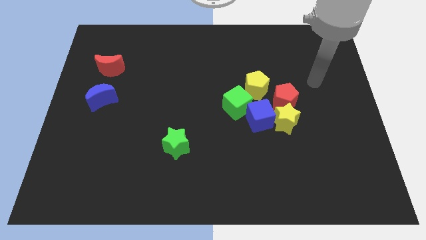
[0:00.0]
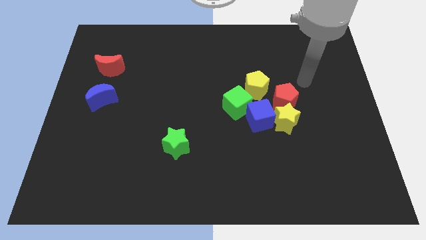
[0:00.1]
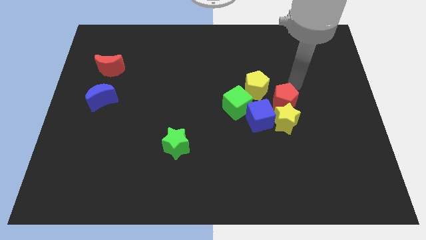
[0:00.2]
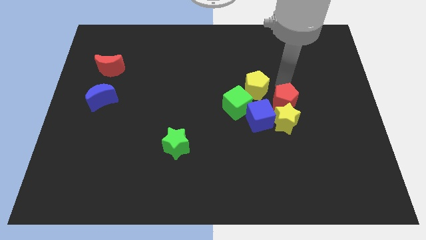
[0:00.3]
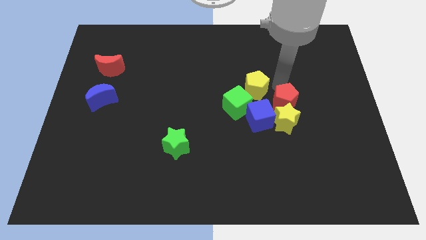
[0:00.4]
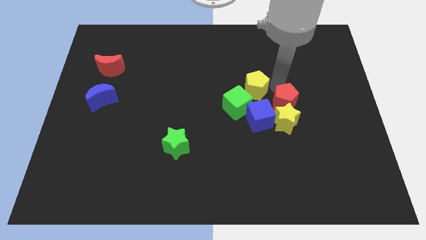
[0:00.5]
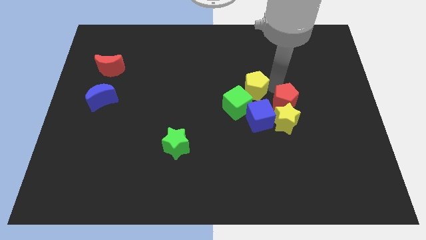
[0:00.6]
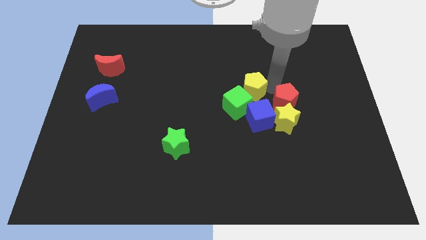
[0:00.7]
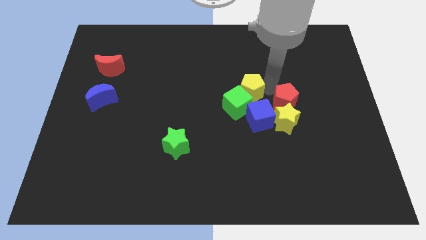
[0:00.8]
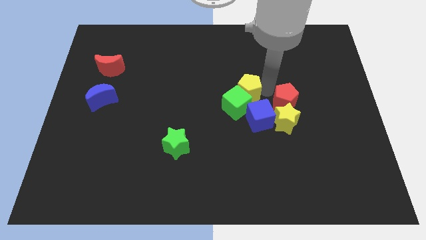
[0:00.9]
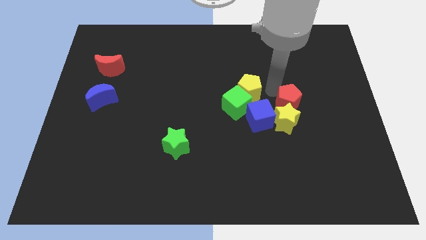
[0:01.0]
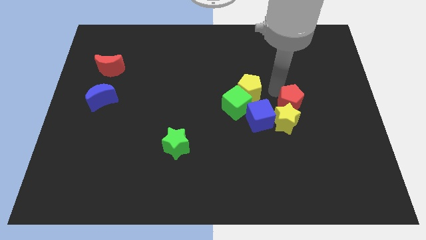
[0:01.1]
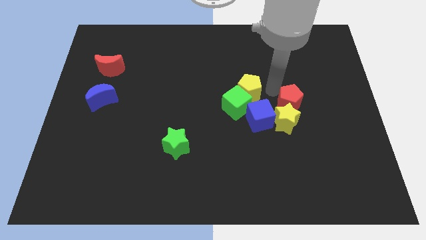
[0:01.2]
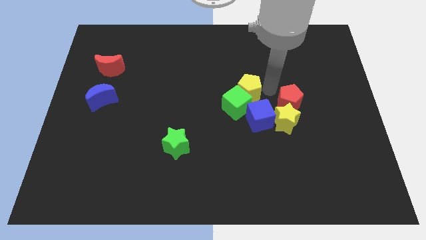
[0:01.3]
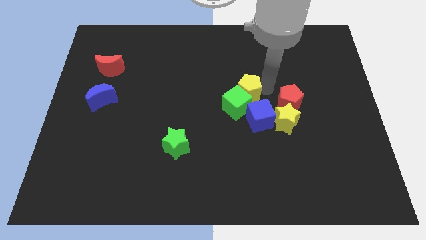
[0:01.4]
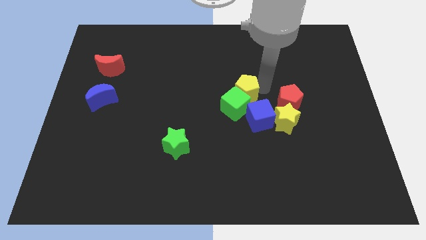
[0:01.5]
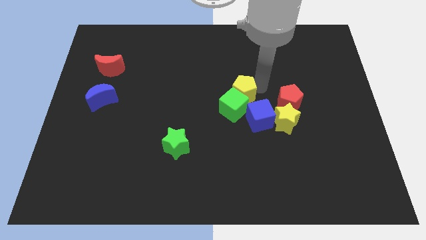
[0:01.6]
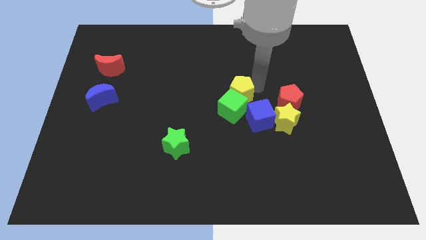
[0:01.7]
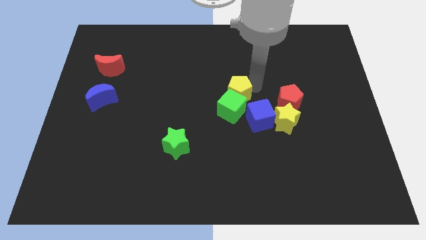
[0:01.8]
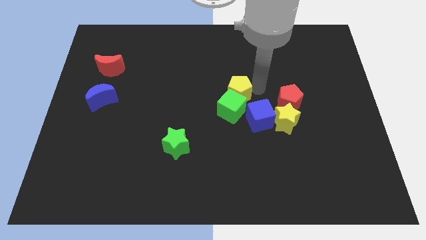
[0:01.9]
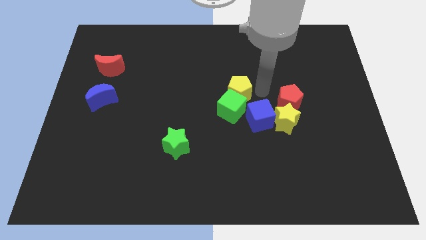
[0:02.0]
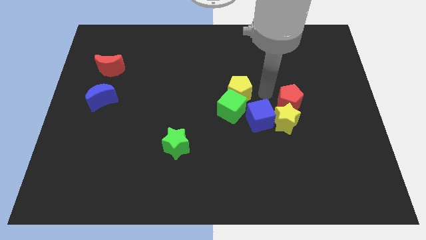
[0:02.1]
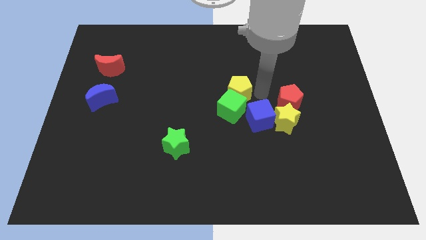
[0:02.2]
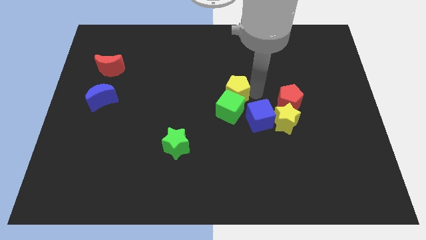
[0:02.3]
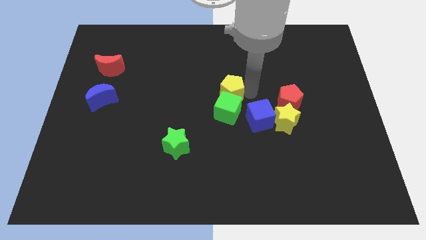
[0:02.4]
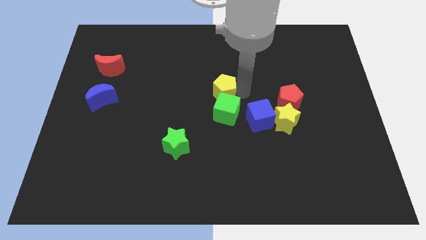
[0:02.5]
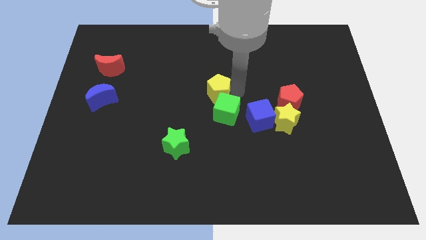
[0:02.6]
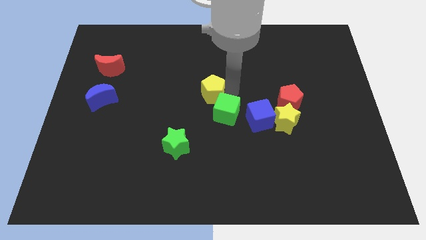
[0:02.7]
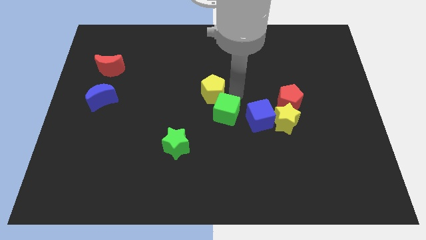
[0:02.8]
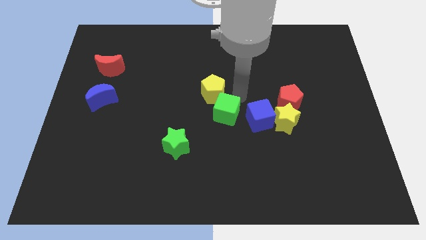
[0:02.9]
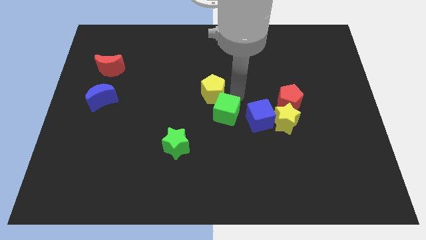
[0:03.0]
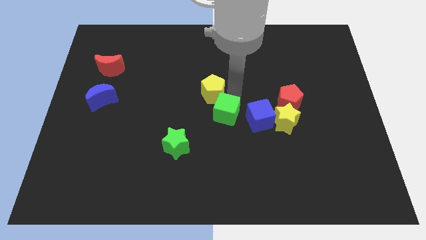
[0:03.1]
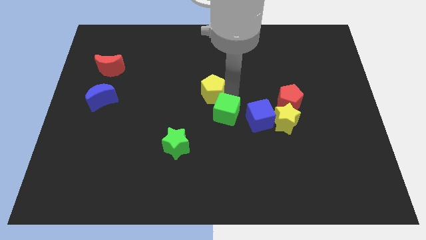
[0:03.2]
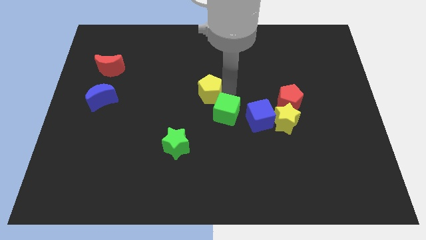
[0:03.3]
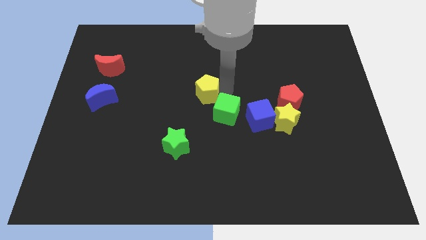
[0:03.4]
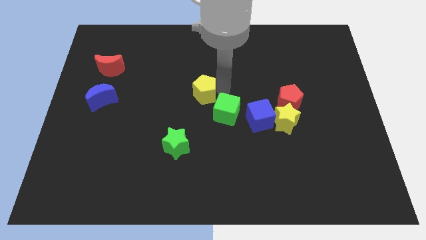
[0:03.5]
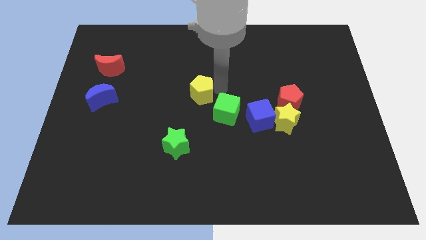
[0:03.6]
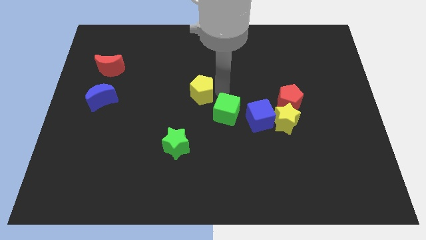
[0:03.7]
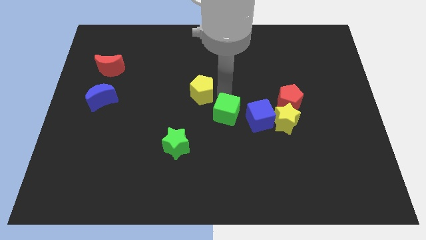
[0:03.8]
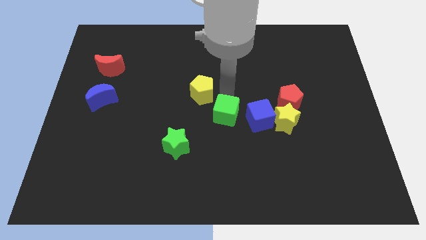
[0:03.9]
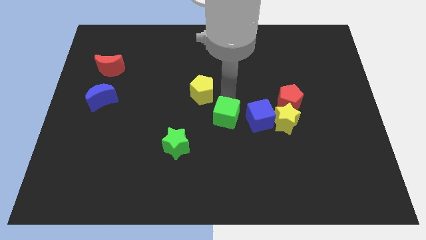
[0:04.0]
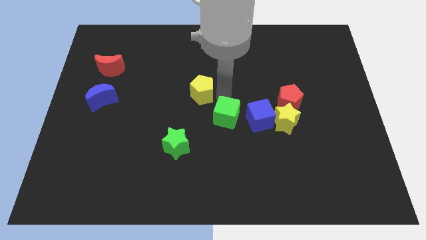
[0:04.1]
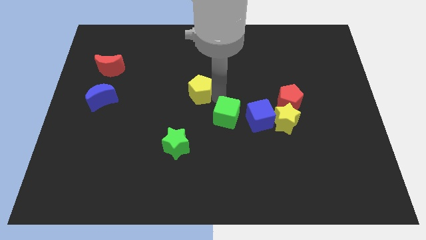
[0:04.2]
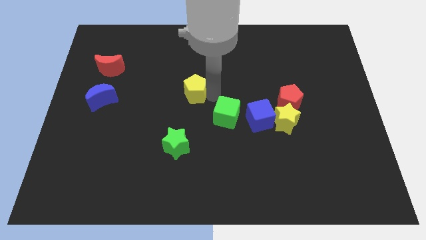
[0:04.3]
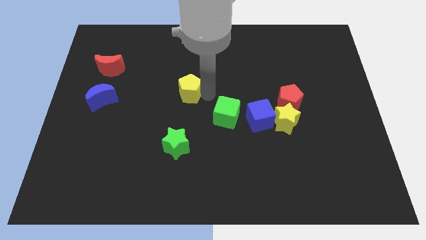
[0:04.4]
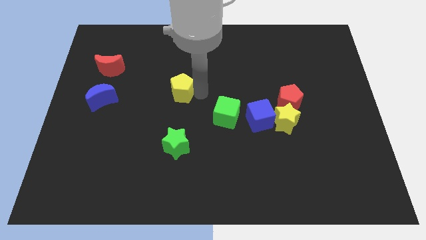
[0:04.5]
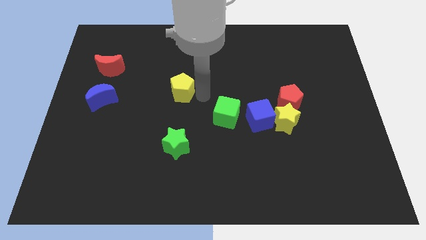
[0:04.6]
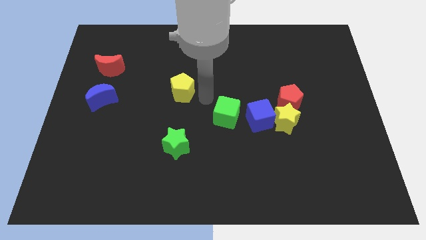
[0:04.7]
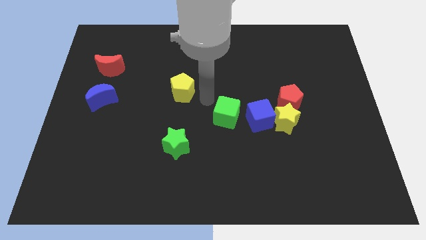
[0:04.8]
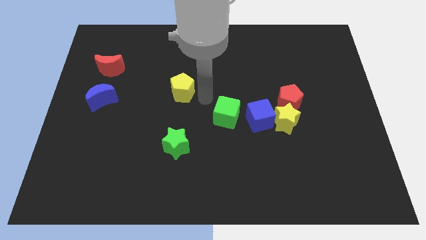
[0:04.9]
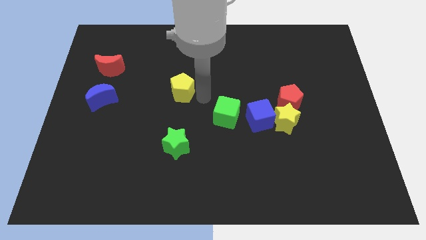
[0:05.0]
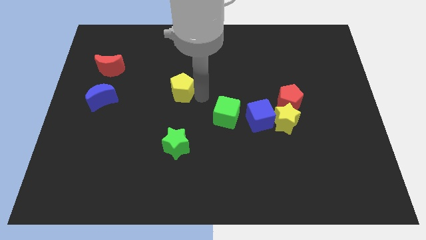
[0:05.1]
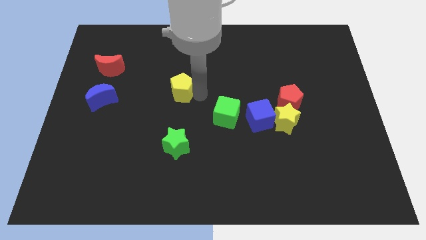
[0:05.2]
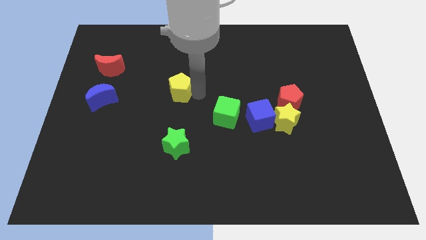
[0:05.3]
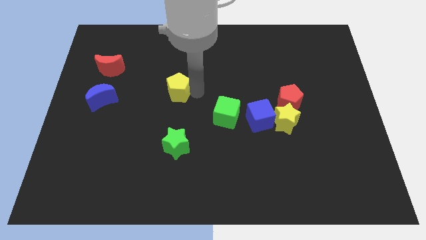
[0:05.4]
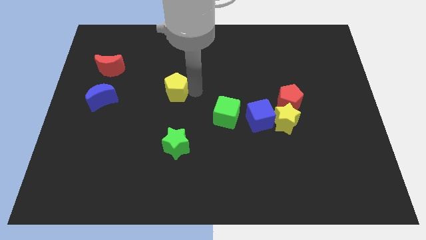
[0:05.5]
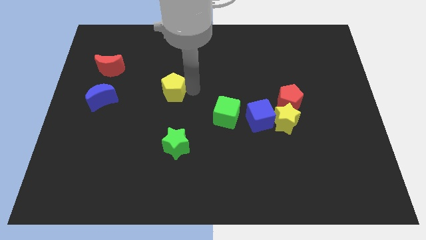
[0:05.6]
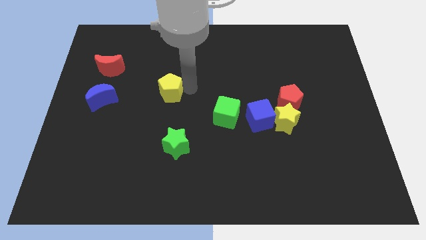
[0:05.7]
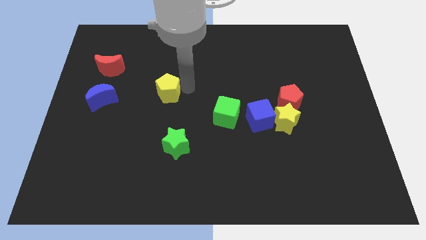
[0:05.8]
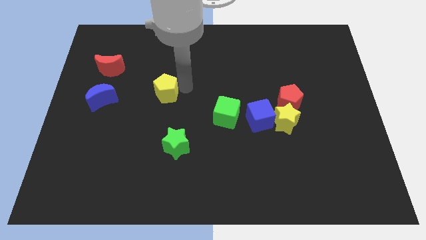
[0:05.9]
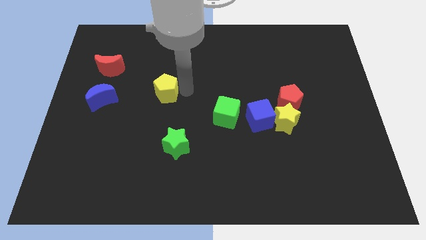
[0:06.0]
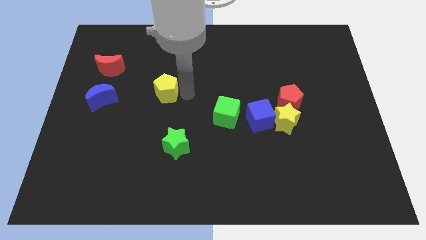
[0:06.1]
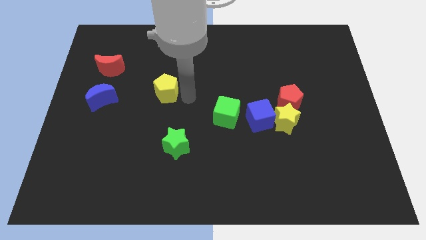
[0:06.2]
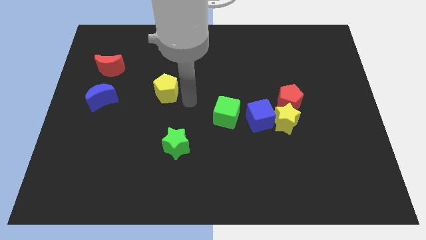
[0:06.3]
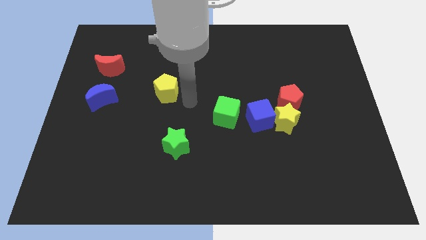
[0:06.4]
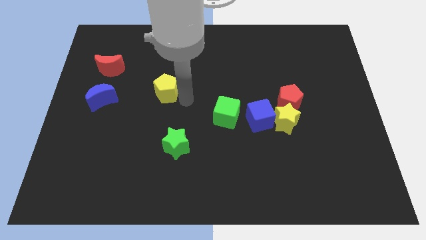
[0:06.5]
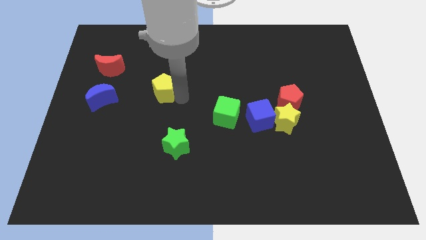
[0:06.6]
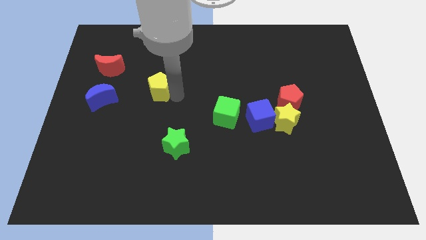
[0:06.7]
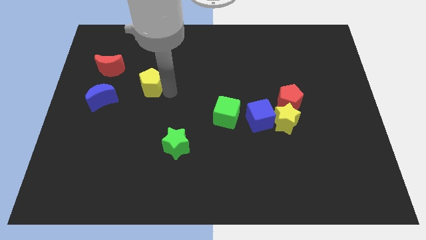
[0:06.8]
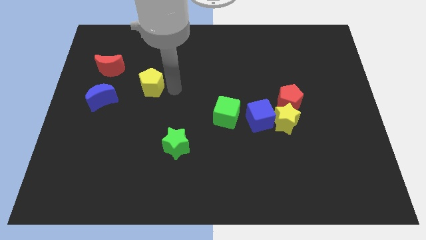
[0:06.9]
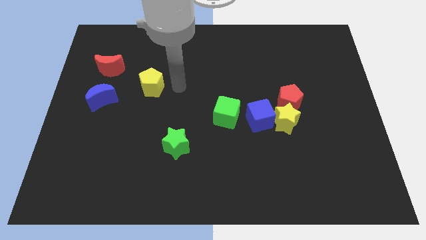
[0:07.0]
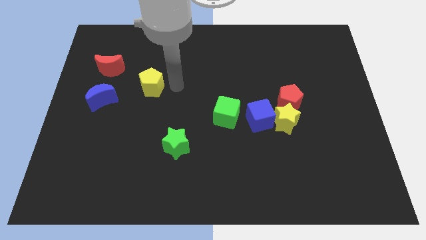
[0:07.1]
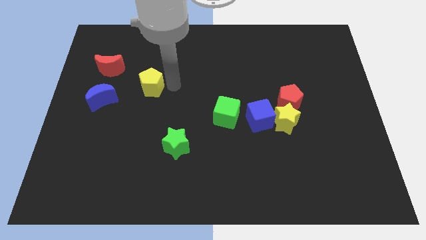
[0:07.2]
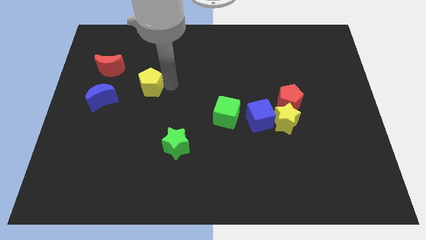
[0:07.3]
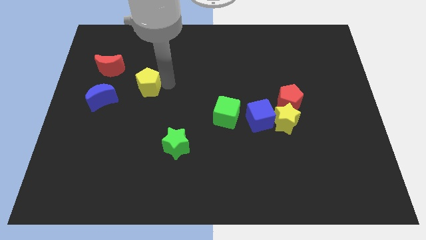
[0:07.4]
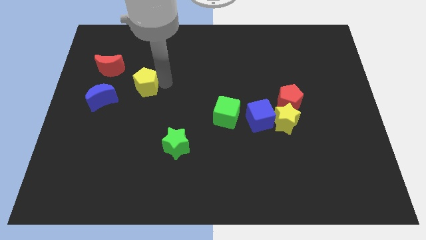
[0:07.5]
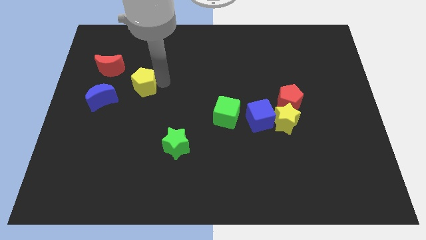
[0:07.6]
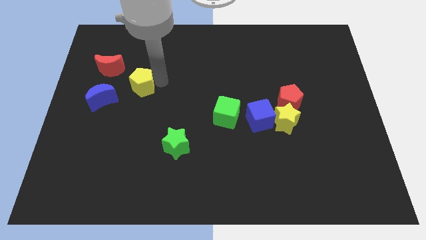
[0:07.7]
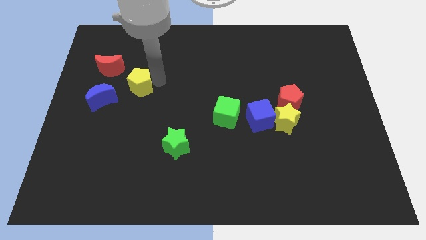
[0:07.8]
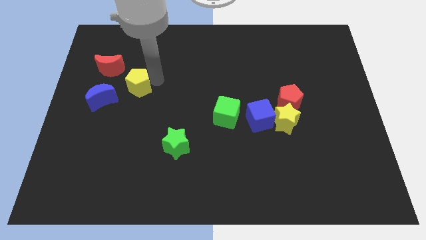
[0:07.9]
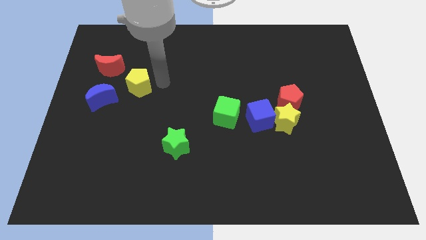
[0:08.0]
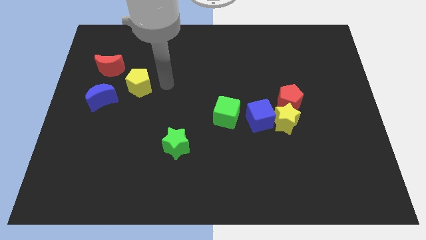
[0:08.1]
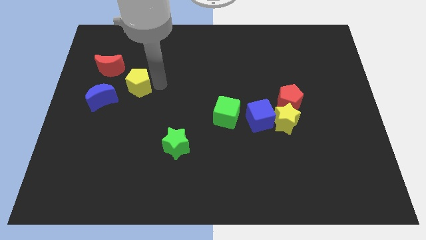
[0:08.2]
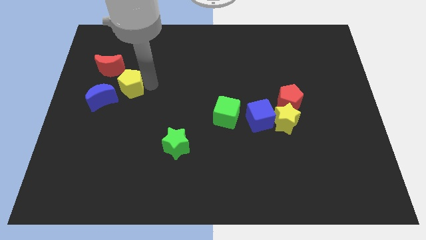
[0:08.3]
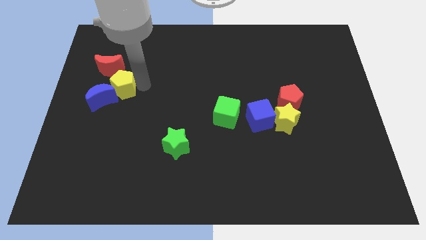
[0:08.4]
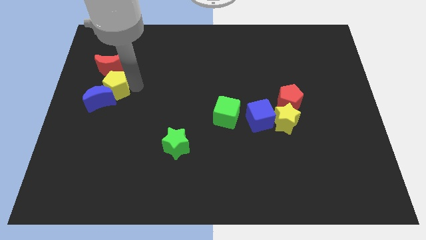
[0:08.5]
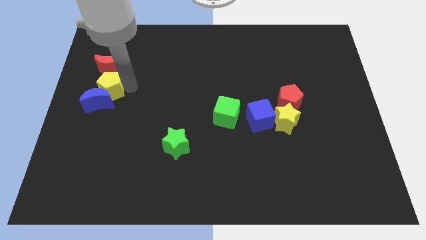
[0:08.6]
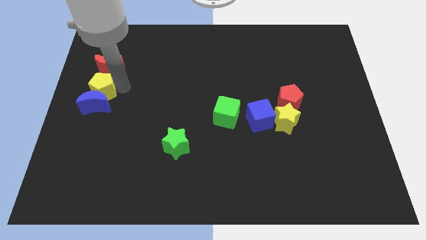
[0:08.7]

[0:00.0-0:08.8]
put the yellow pentagon to the left side of the board
